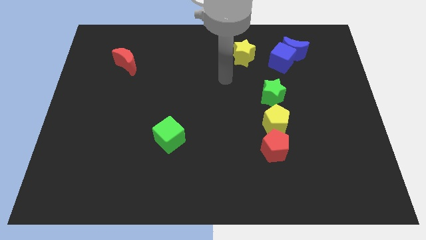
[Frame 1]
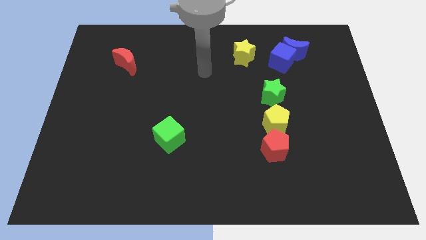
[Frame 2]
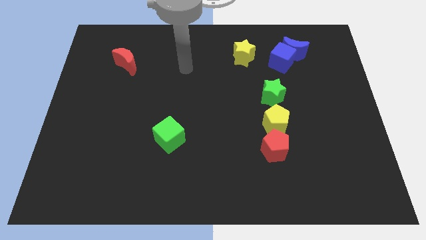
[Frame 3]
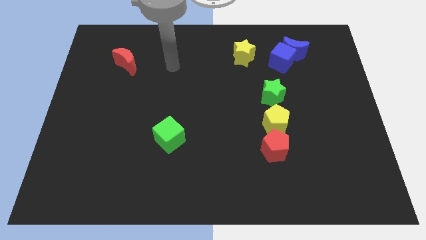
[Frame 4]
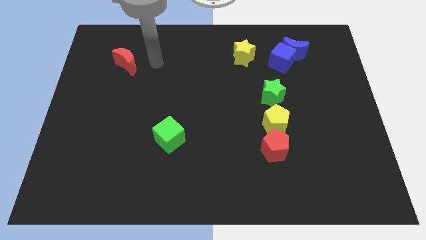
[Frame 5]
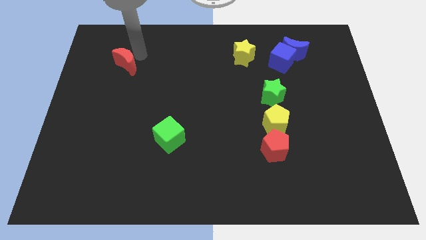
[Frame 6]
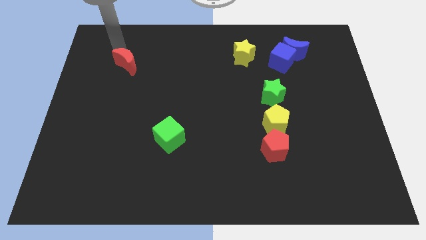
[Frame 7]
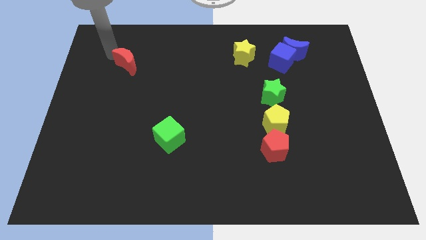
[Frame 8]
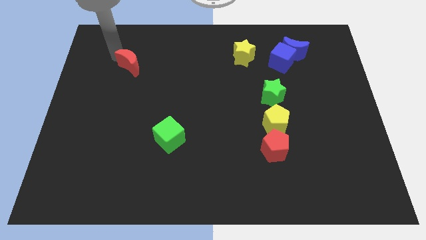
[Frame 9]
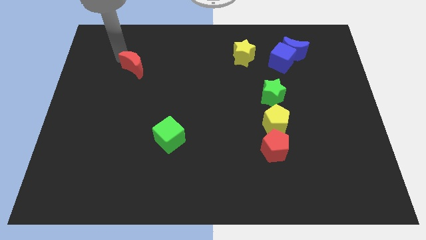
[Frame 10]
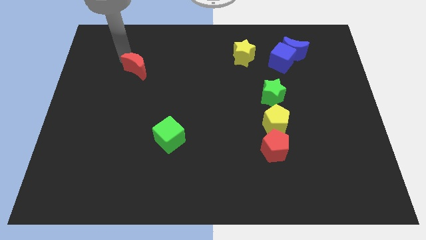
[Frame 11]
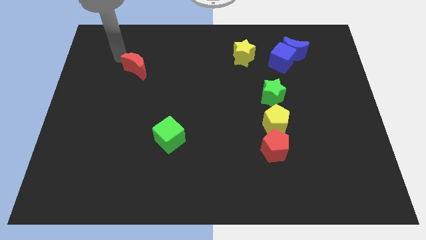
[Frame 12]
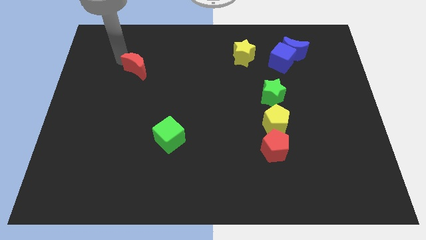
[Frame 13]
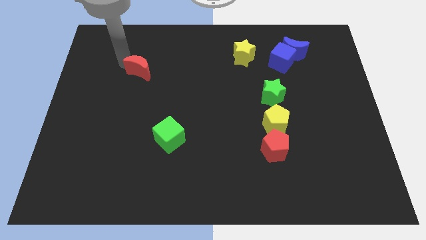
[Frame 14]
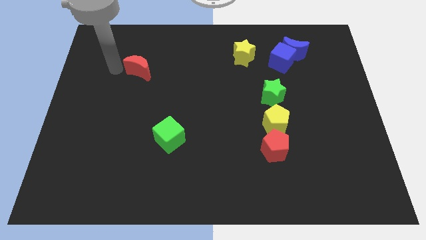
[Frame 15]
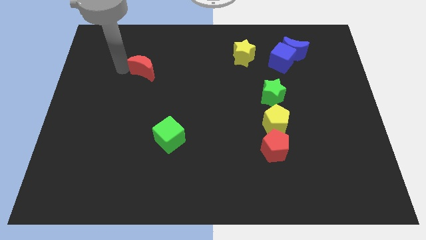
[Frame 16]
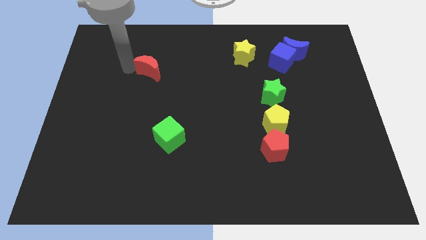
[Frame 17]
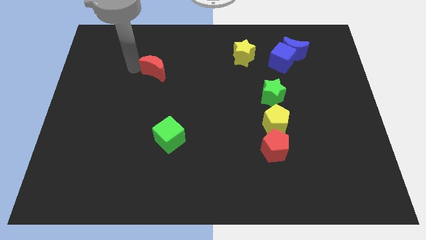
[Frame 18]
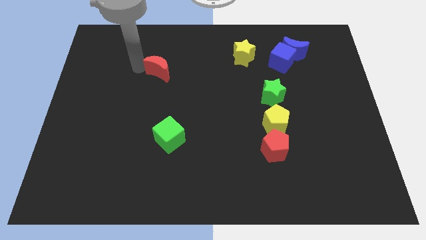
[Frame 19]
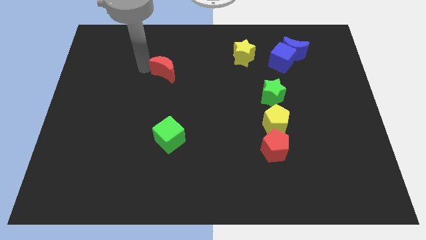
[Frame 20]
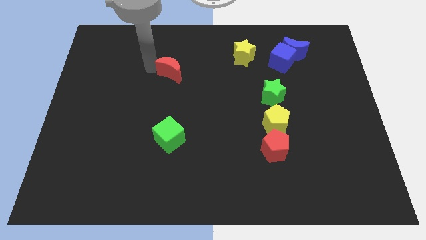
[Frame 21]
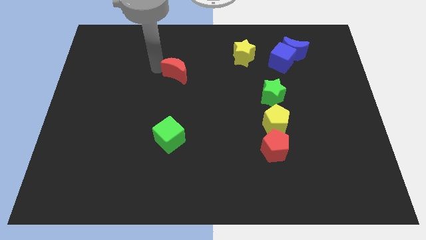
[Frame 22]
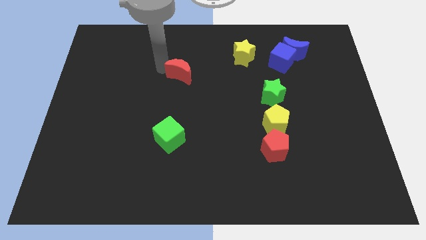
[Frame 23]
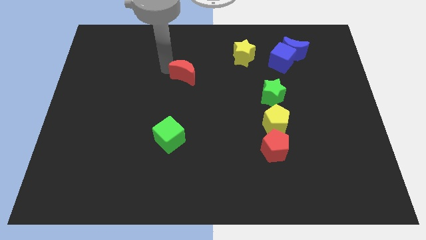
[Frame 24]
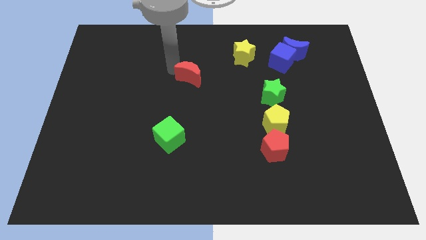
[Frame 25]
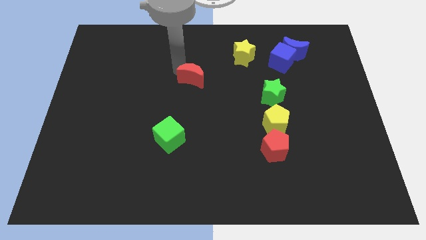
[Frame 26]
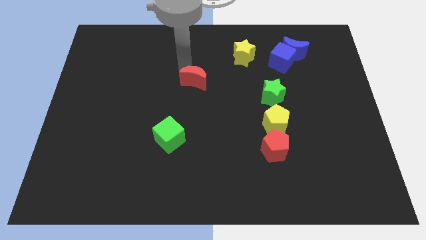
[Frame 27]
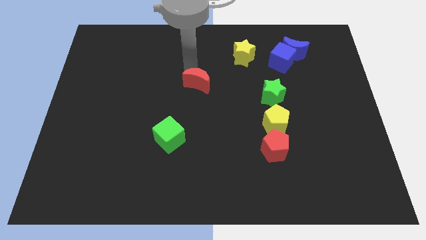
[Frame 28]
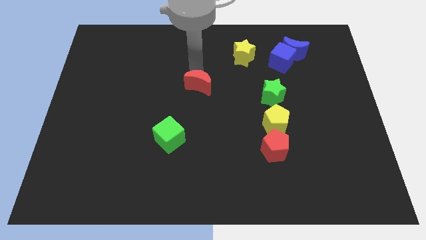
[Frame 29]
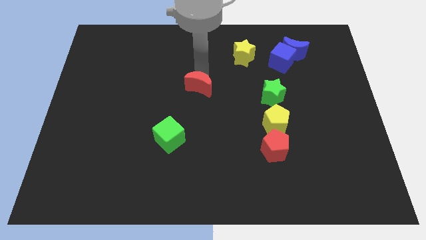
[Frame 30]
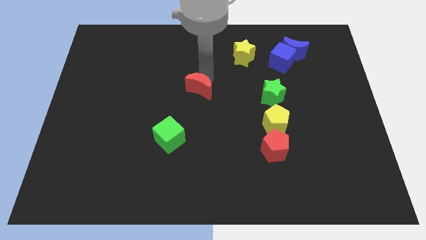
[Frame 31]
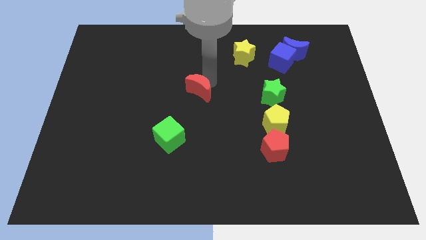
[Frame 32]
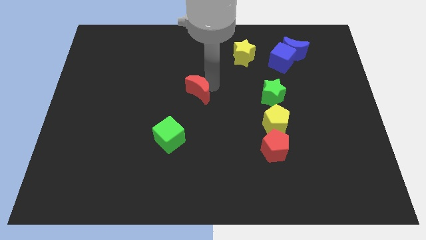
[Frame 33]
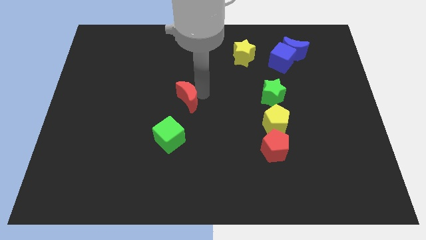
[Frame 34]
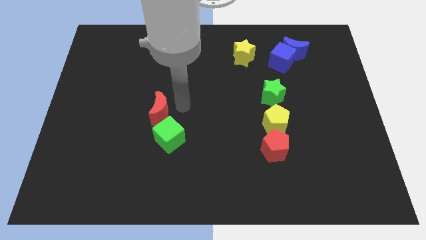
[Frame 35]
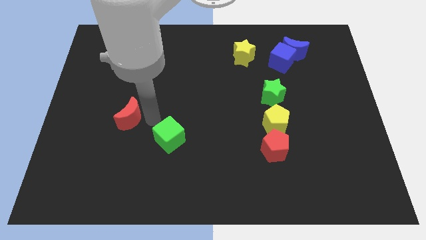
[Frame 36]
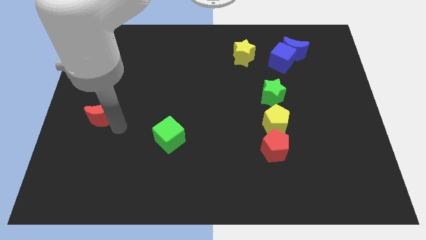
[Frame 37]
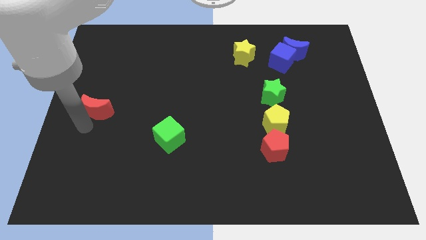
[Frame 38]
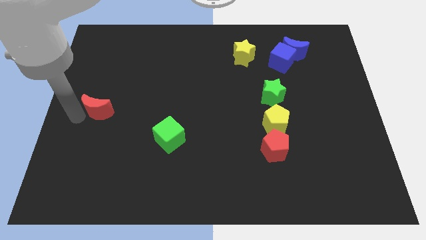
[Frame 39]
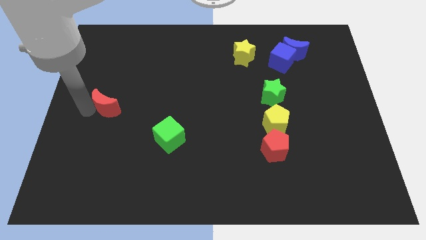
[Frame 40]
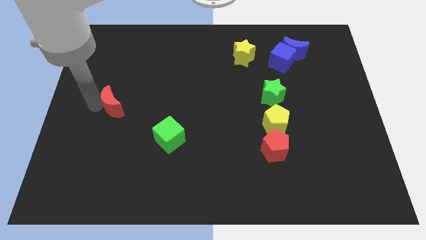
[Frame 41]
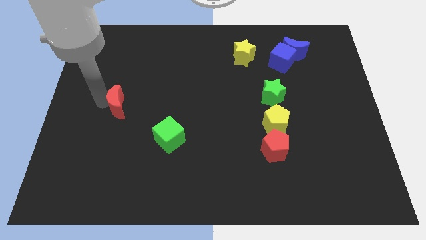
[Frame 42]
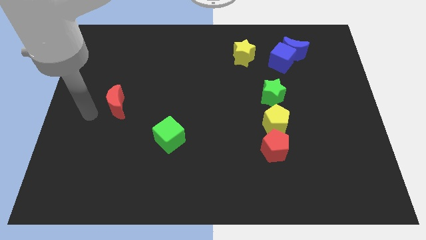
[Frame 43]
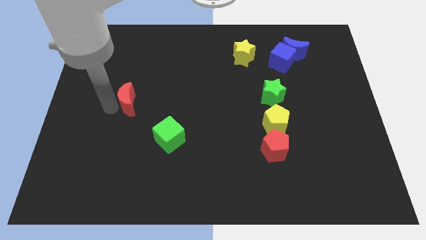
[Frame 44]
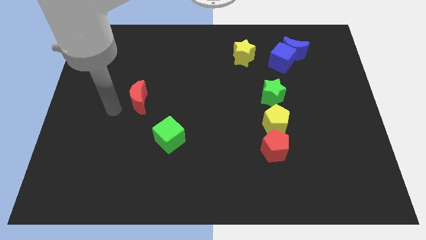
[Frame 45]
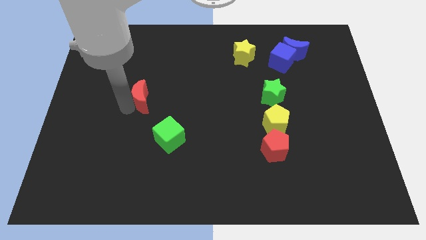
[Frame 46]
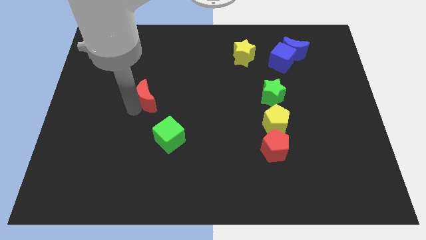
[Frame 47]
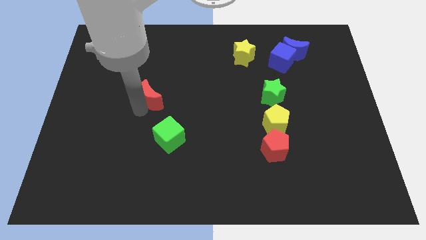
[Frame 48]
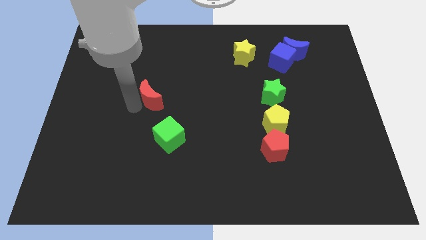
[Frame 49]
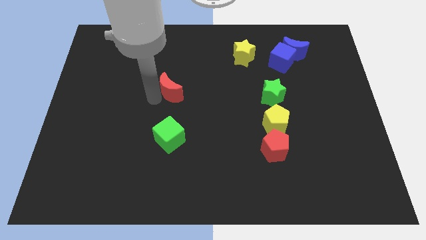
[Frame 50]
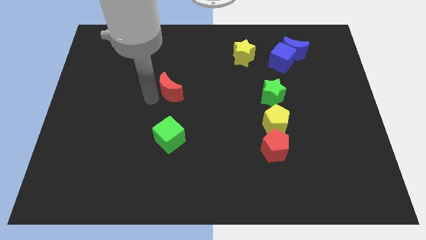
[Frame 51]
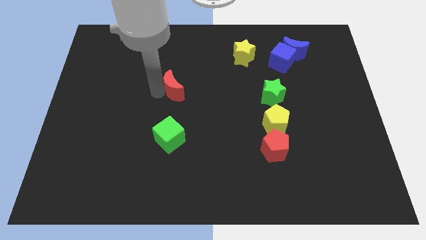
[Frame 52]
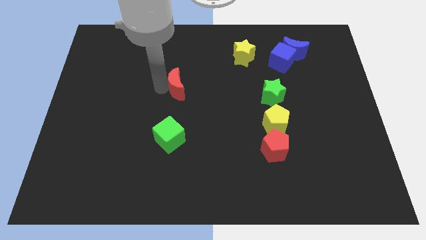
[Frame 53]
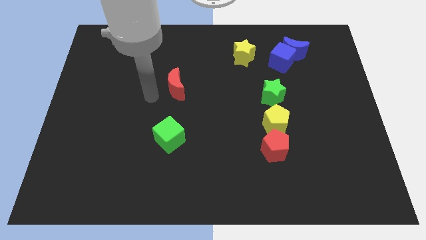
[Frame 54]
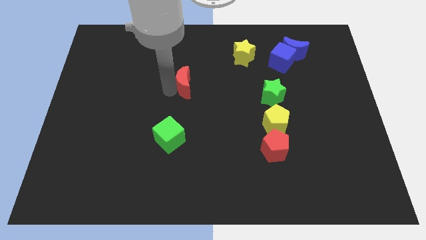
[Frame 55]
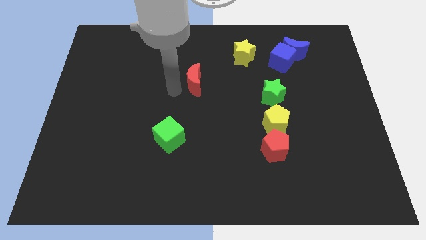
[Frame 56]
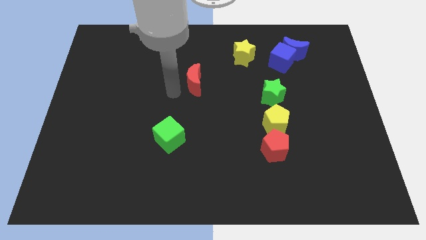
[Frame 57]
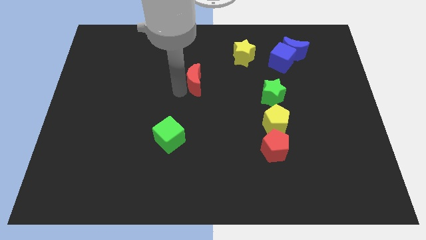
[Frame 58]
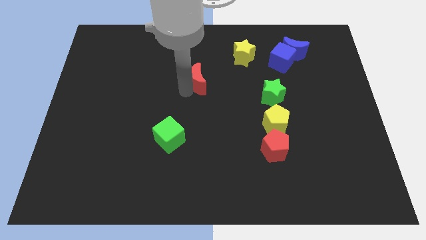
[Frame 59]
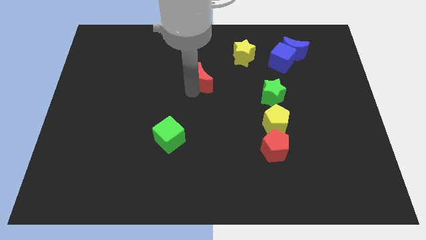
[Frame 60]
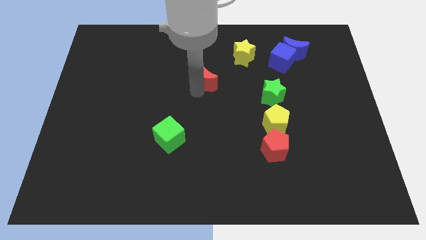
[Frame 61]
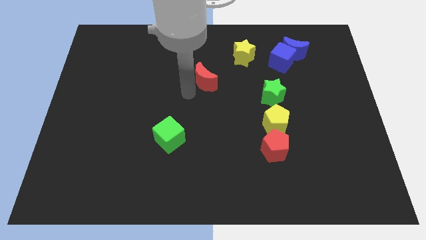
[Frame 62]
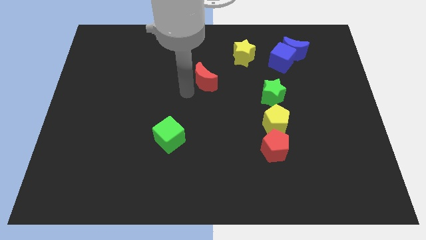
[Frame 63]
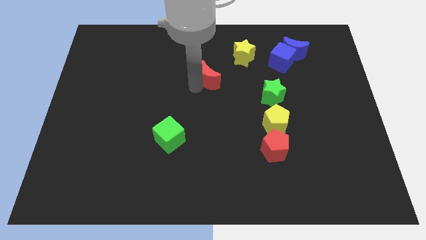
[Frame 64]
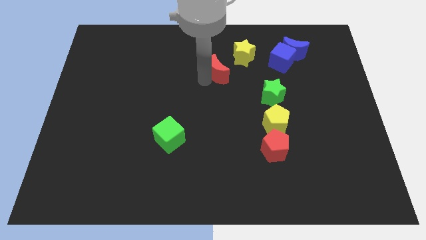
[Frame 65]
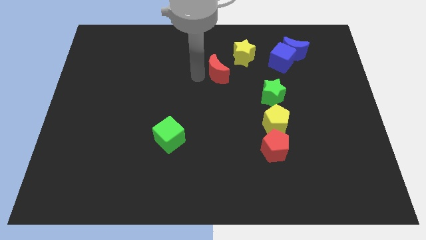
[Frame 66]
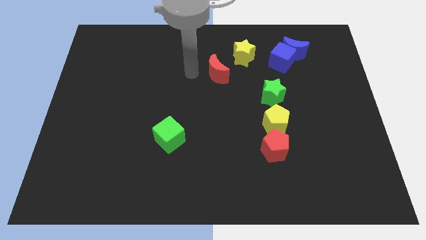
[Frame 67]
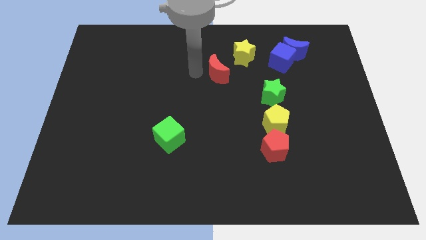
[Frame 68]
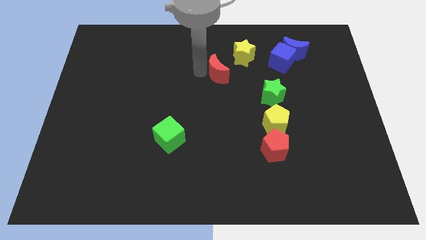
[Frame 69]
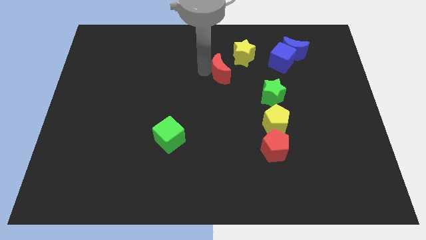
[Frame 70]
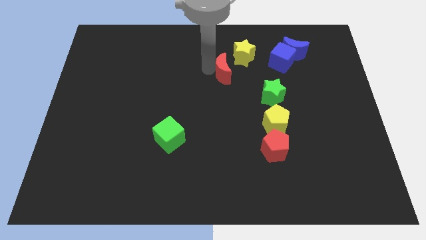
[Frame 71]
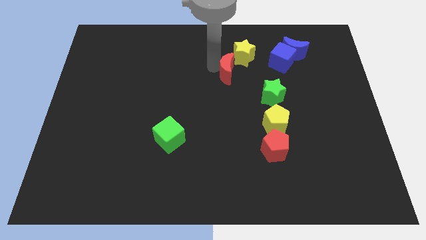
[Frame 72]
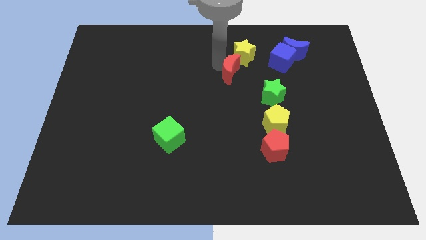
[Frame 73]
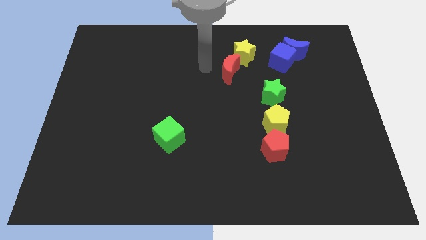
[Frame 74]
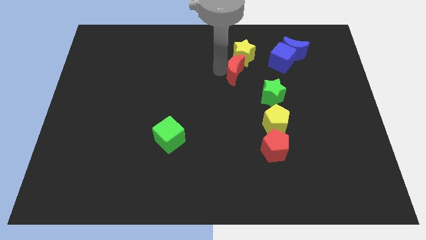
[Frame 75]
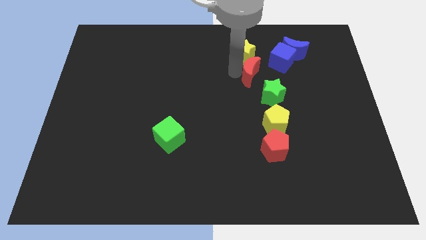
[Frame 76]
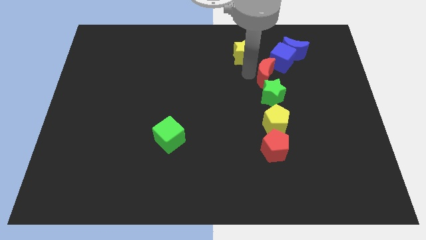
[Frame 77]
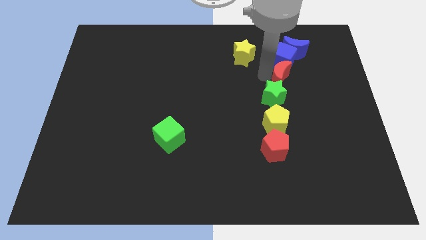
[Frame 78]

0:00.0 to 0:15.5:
move the red moon to the bottom of the blue moon
